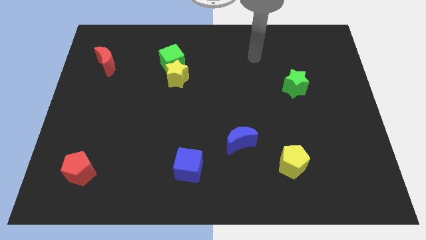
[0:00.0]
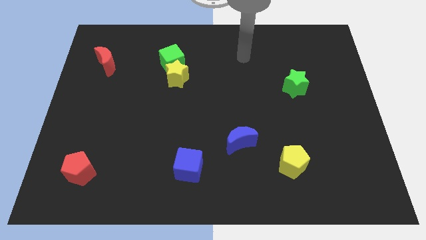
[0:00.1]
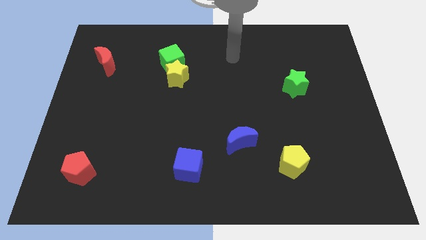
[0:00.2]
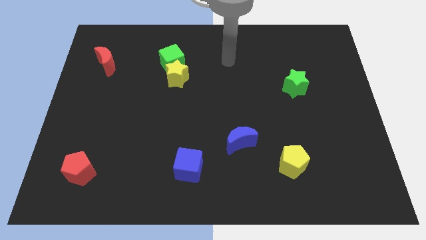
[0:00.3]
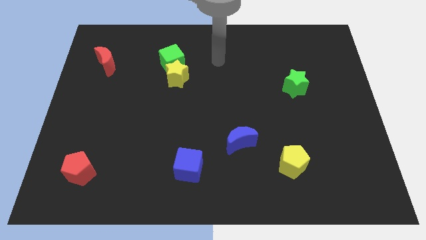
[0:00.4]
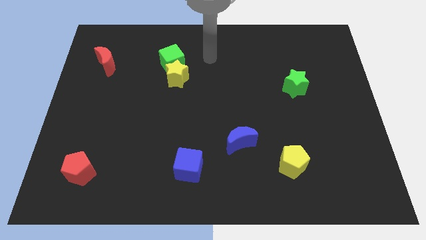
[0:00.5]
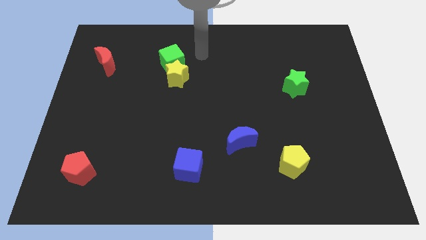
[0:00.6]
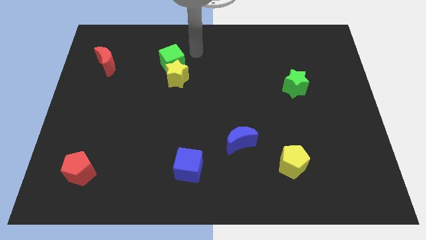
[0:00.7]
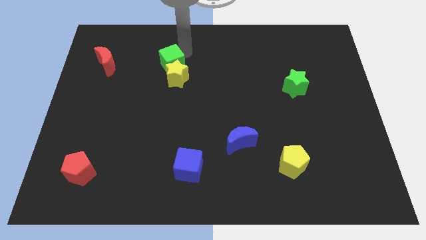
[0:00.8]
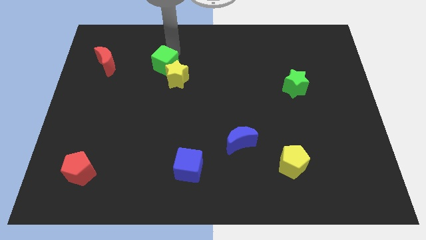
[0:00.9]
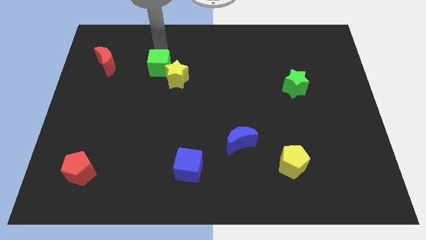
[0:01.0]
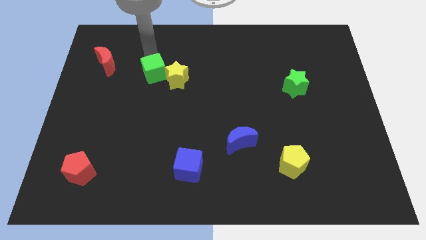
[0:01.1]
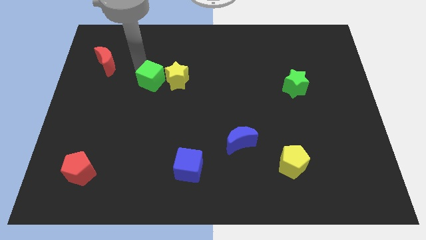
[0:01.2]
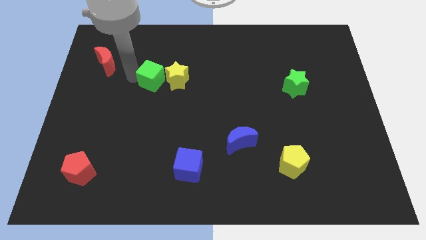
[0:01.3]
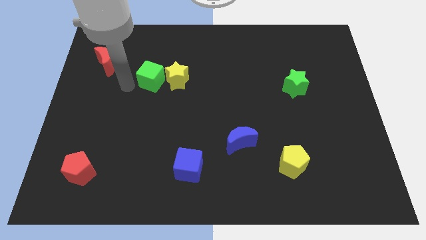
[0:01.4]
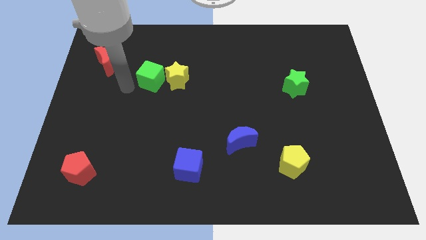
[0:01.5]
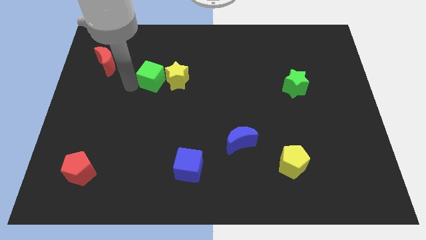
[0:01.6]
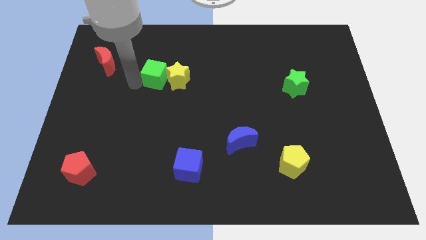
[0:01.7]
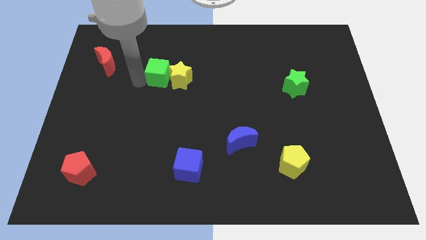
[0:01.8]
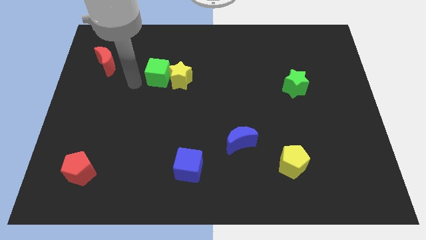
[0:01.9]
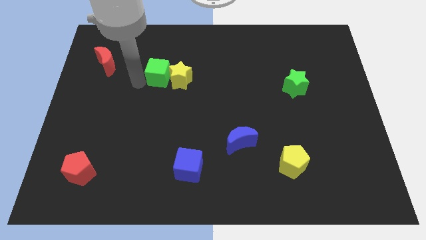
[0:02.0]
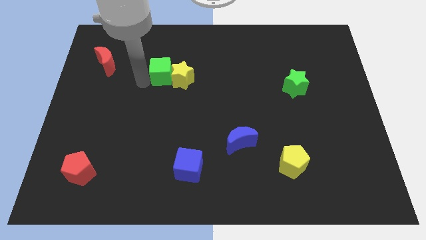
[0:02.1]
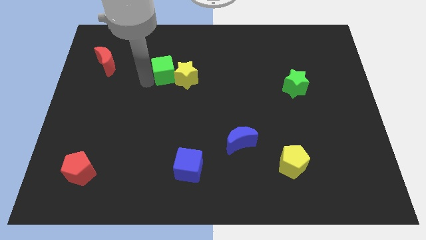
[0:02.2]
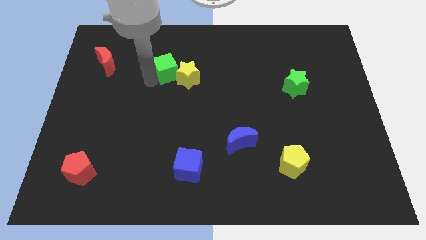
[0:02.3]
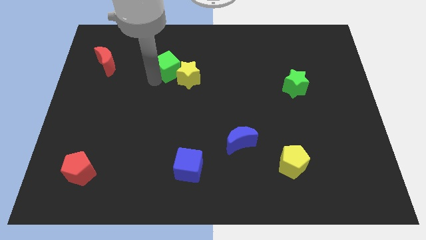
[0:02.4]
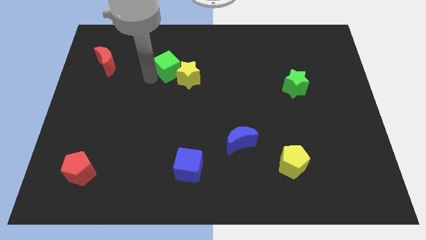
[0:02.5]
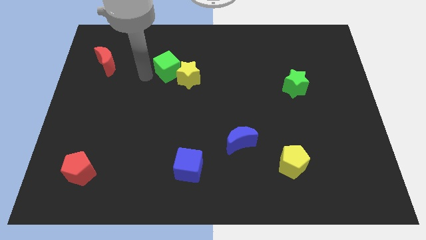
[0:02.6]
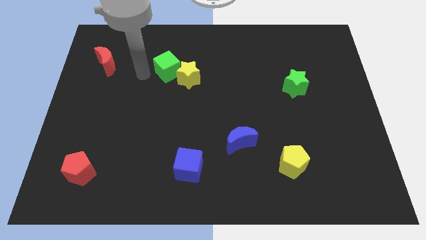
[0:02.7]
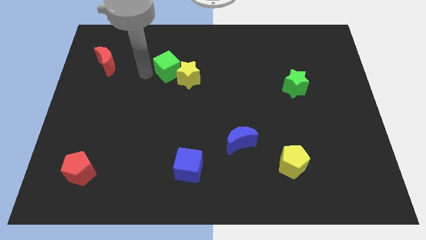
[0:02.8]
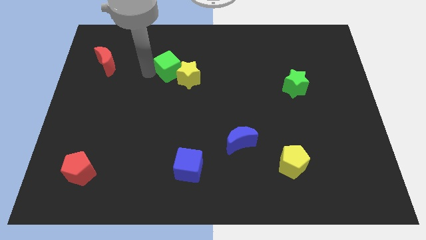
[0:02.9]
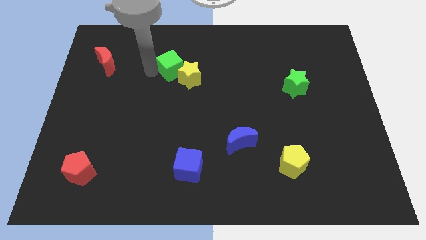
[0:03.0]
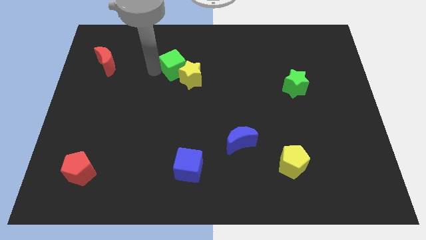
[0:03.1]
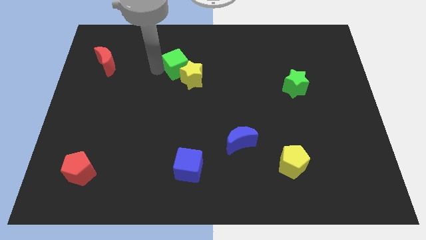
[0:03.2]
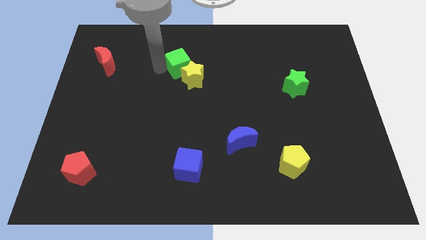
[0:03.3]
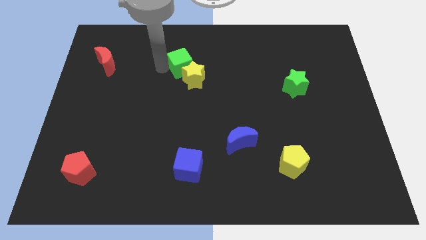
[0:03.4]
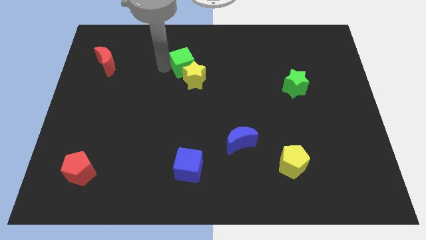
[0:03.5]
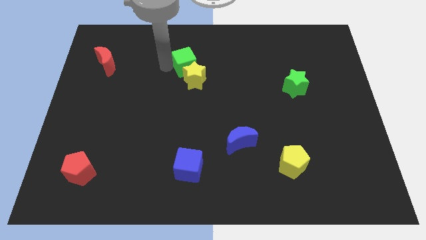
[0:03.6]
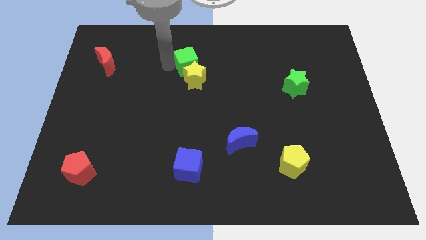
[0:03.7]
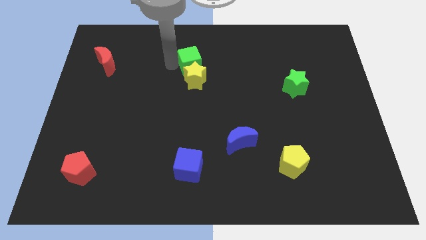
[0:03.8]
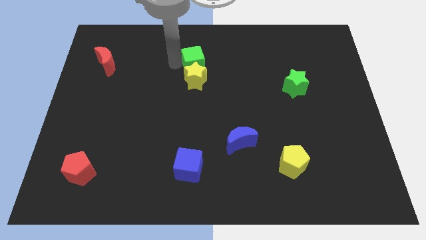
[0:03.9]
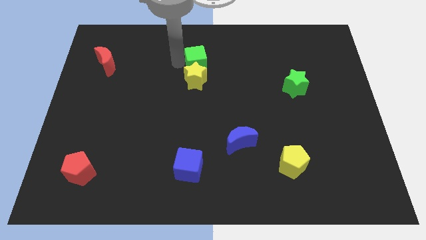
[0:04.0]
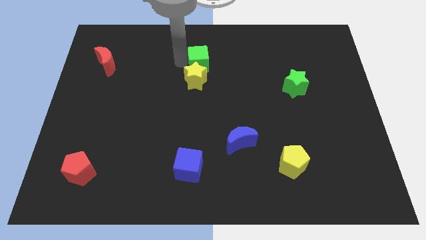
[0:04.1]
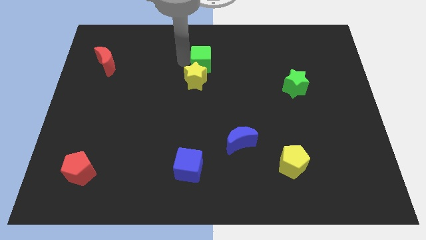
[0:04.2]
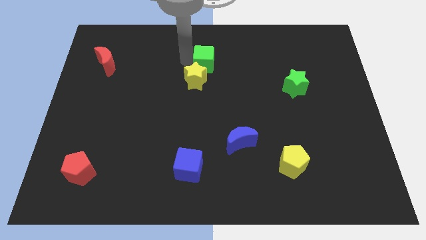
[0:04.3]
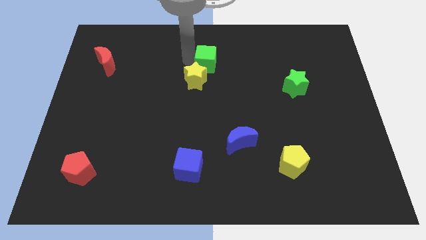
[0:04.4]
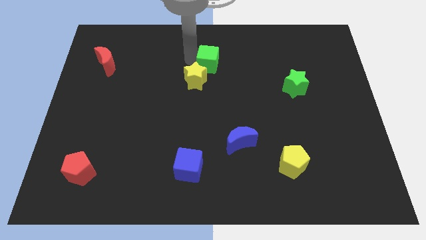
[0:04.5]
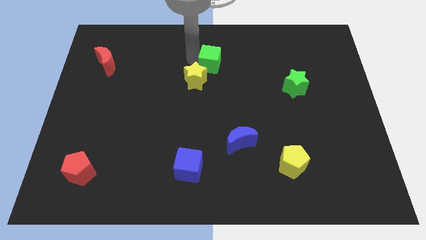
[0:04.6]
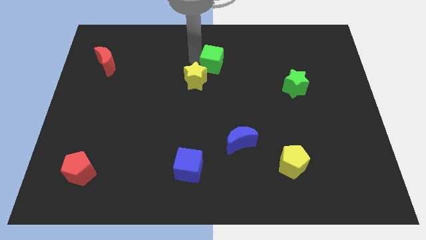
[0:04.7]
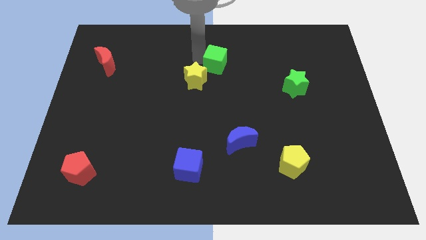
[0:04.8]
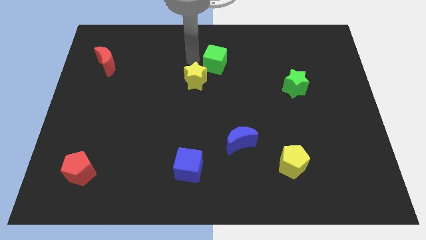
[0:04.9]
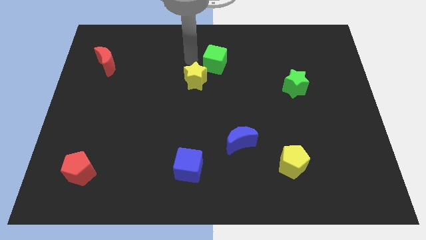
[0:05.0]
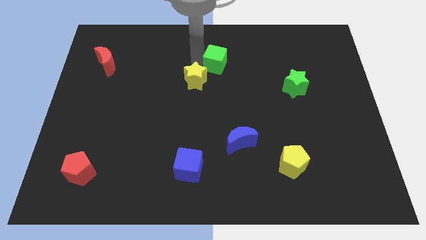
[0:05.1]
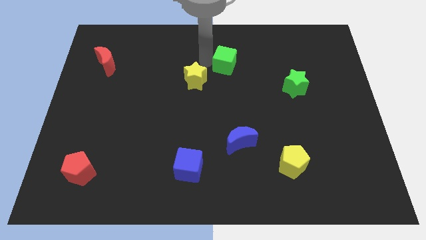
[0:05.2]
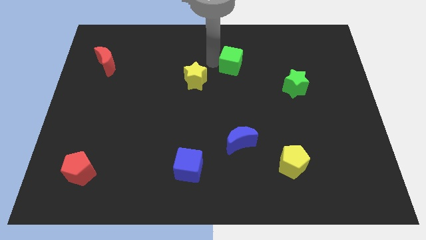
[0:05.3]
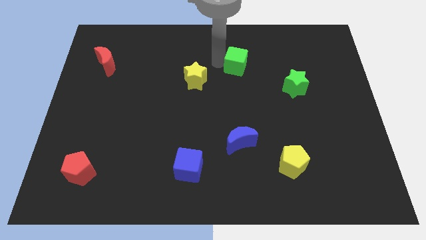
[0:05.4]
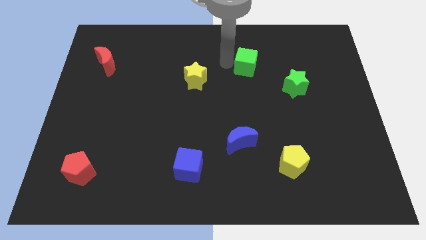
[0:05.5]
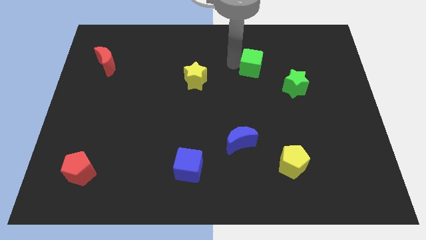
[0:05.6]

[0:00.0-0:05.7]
put the green cube to the top left side of the green star

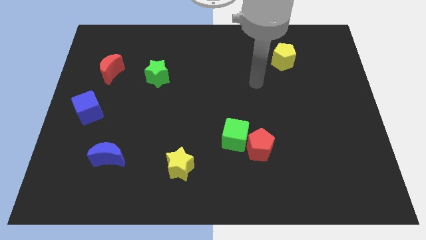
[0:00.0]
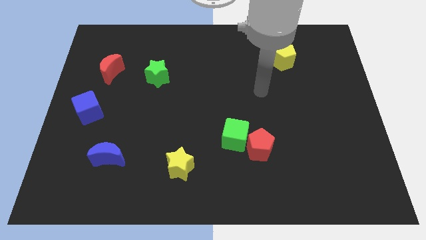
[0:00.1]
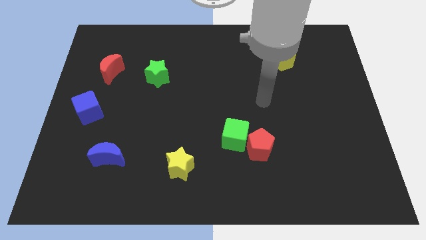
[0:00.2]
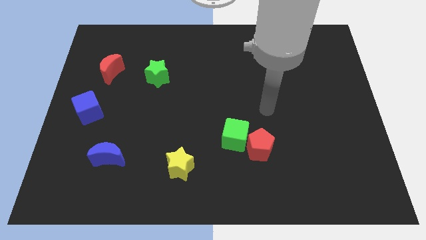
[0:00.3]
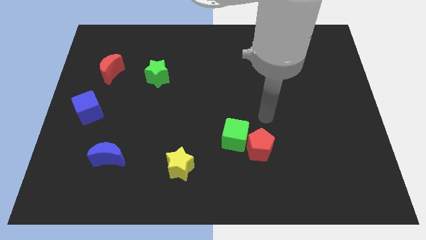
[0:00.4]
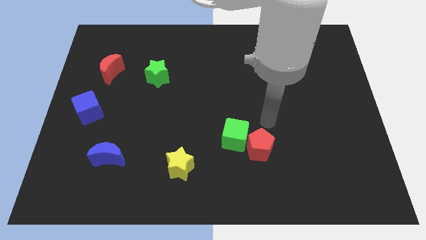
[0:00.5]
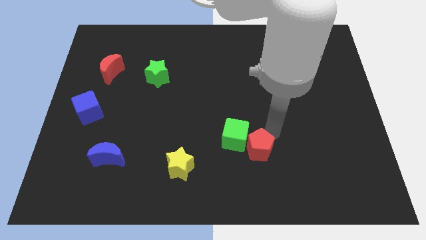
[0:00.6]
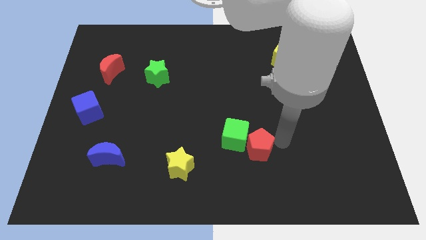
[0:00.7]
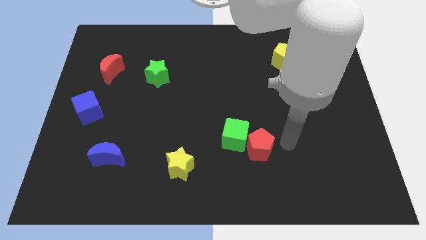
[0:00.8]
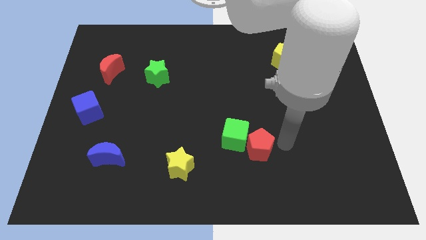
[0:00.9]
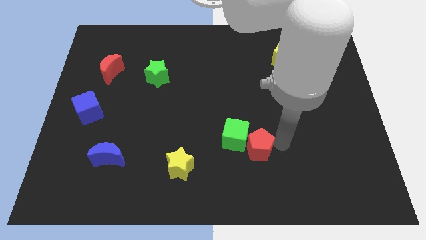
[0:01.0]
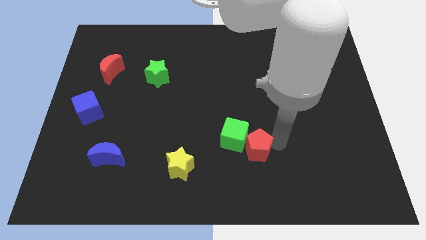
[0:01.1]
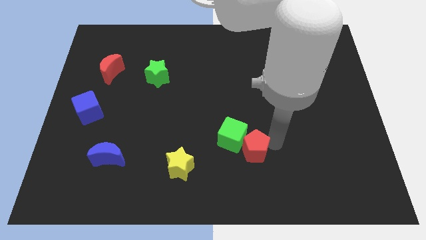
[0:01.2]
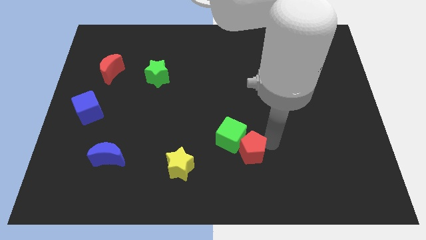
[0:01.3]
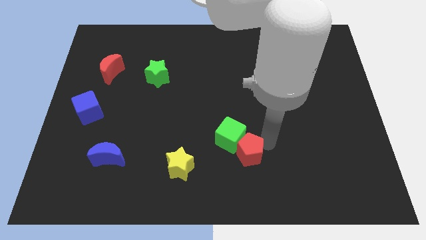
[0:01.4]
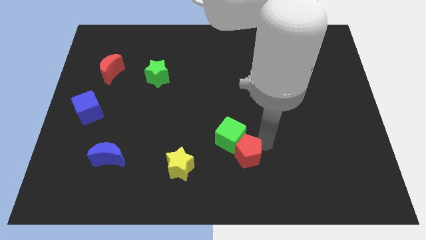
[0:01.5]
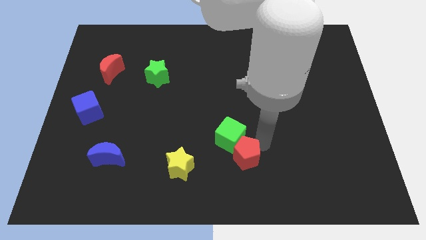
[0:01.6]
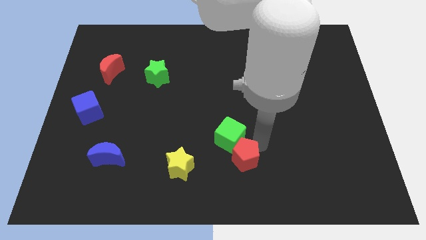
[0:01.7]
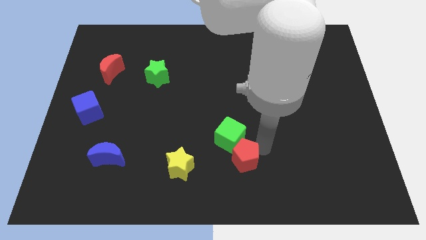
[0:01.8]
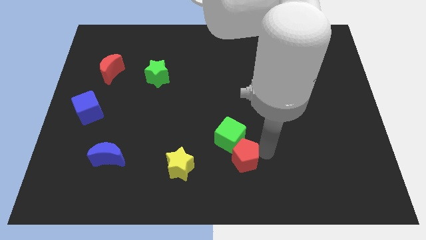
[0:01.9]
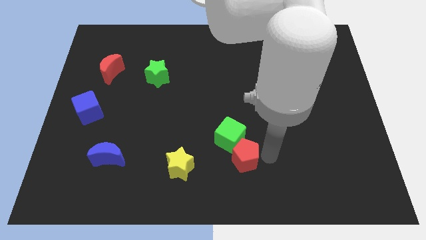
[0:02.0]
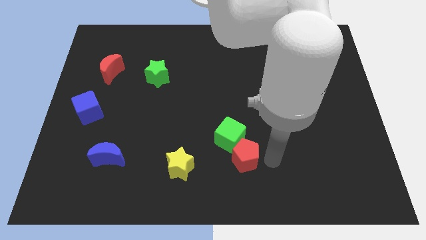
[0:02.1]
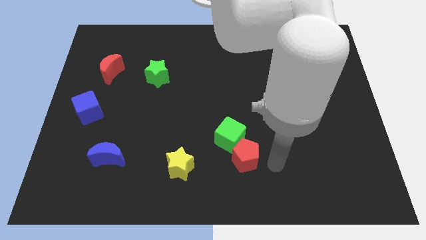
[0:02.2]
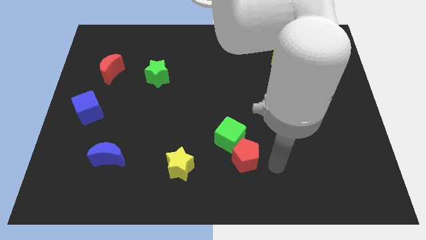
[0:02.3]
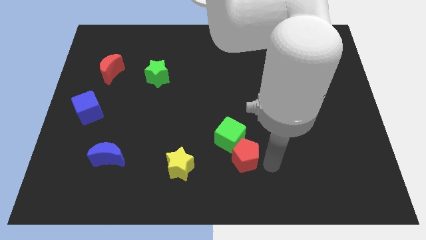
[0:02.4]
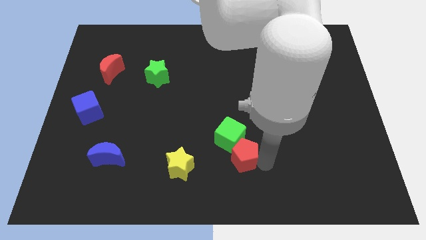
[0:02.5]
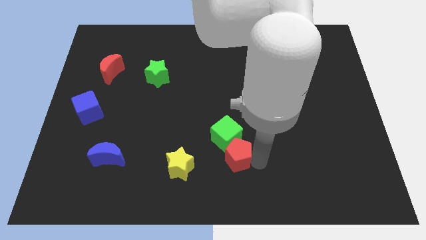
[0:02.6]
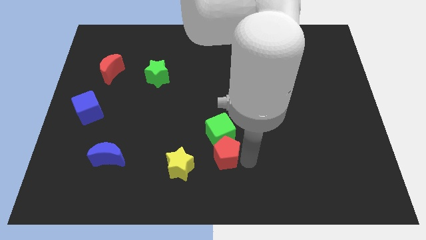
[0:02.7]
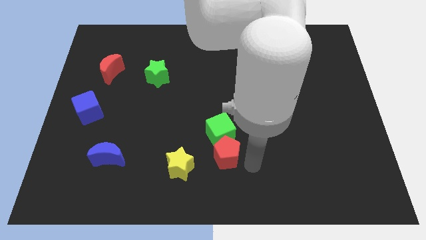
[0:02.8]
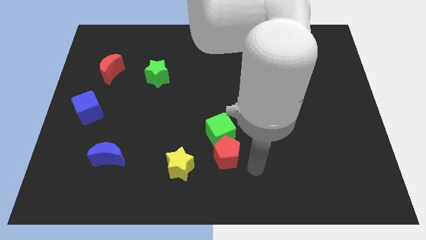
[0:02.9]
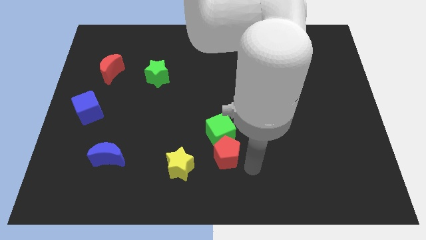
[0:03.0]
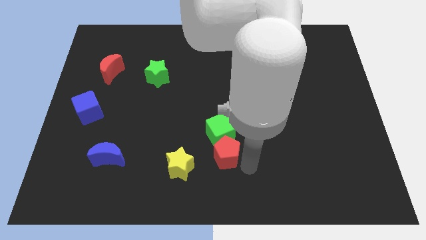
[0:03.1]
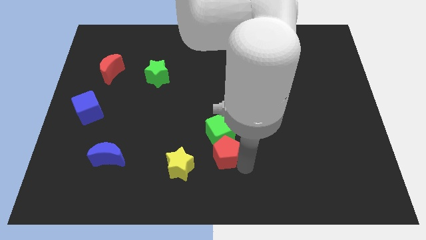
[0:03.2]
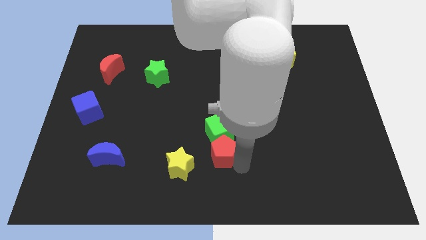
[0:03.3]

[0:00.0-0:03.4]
move the red pentagon to the top right of the yellow star
